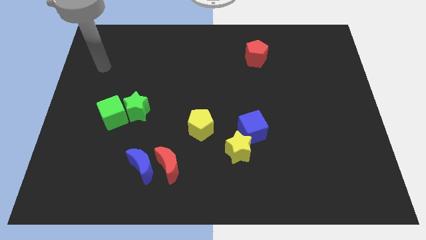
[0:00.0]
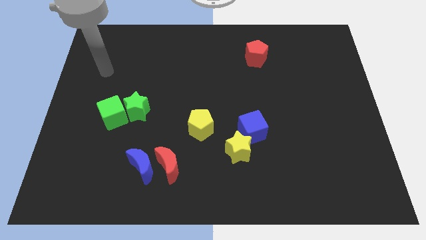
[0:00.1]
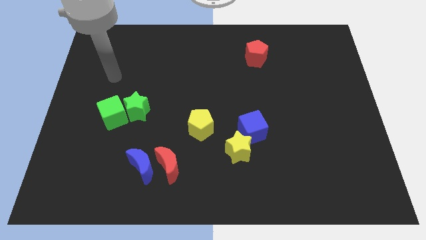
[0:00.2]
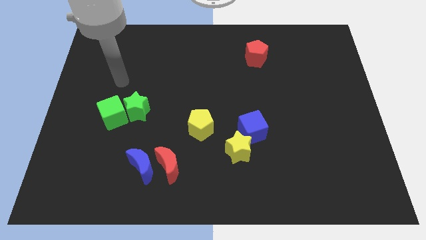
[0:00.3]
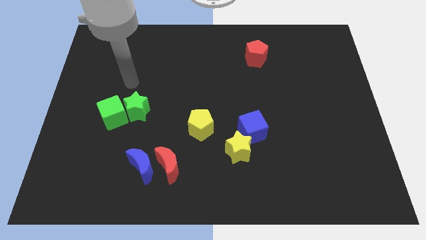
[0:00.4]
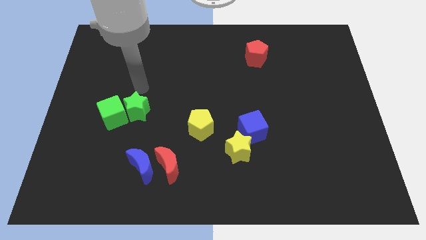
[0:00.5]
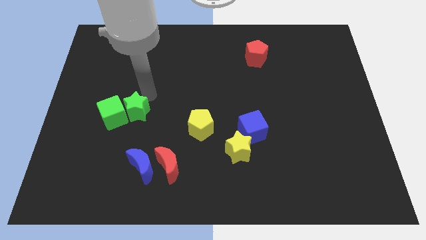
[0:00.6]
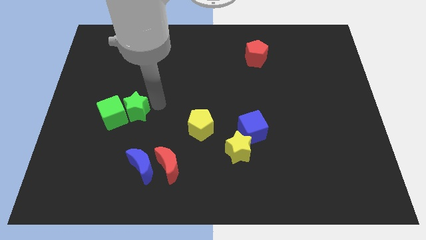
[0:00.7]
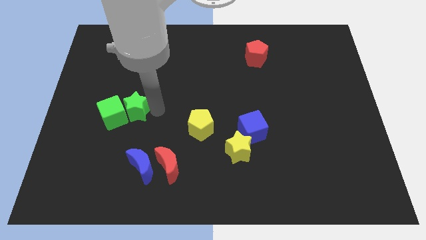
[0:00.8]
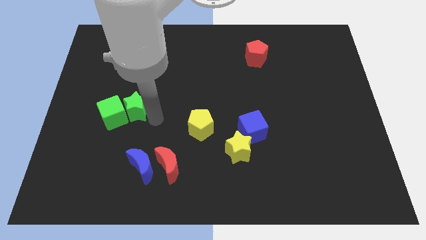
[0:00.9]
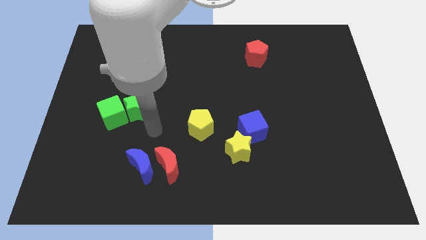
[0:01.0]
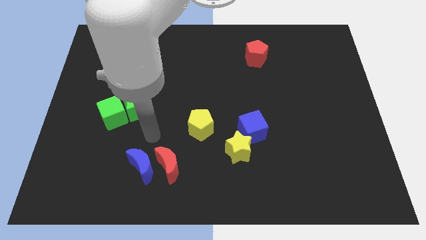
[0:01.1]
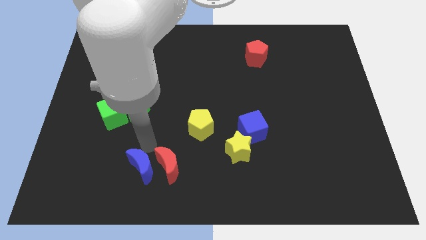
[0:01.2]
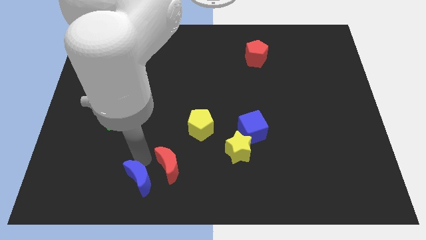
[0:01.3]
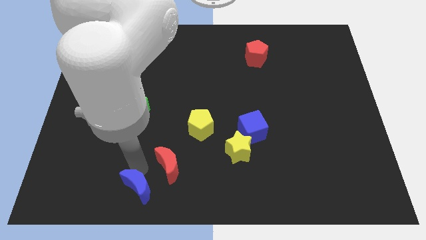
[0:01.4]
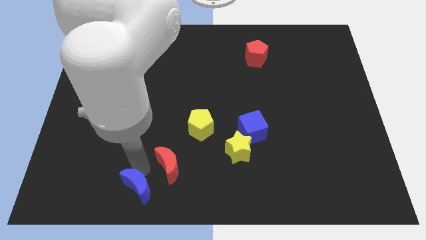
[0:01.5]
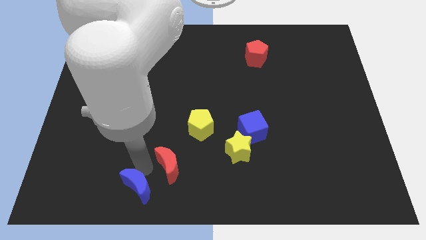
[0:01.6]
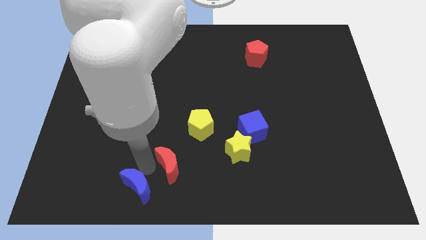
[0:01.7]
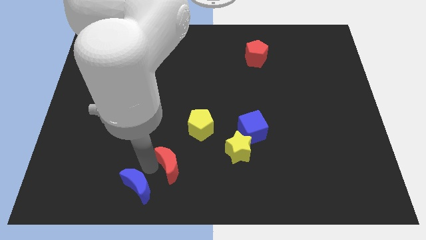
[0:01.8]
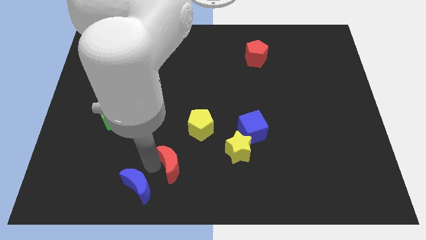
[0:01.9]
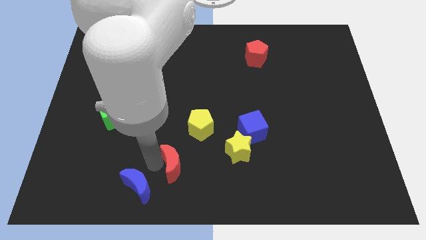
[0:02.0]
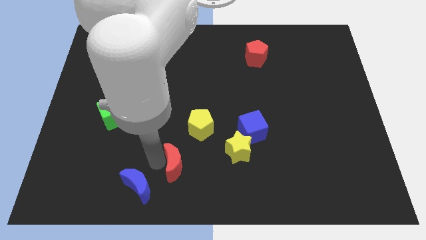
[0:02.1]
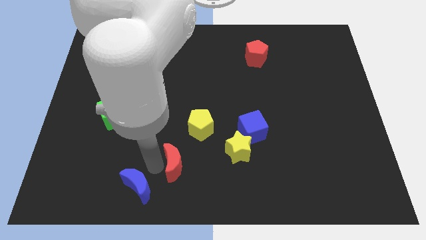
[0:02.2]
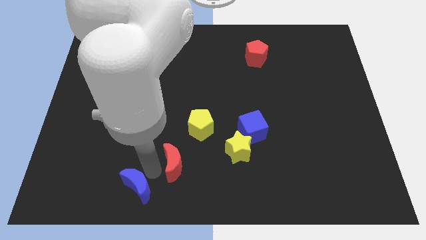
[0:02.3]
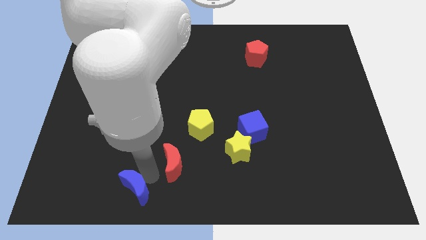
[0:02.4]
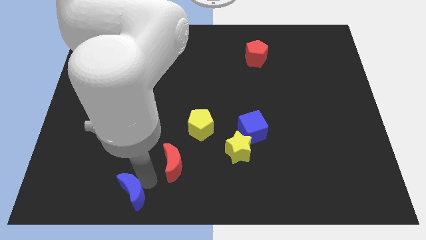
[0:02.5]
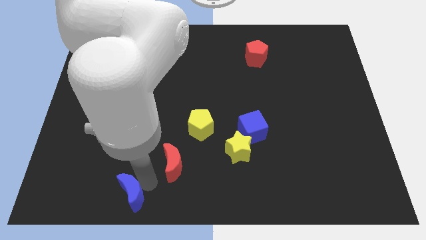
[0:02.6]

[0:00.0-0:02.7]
pull the red moon apart from the blue moon

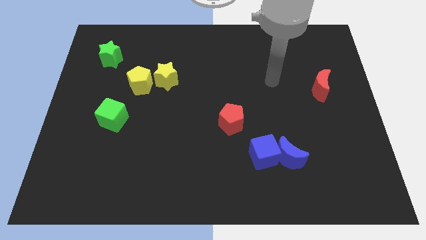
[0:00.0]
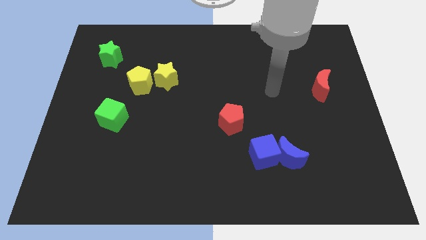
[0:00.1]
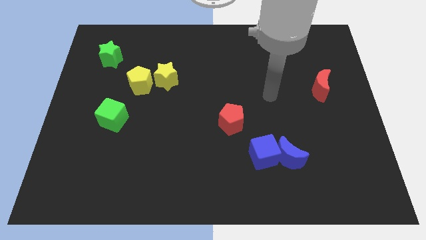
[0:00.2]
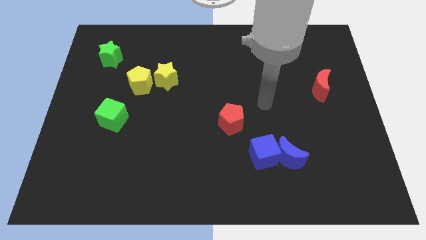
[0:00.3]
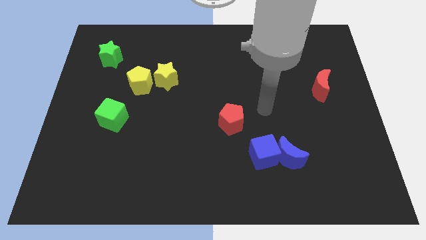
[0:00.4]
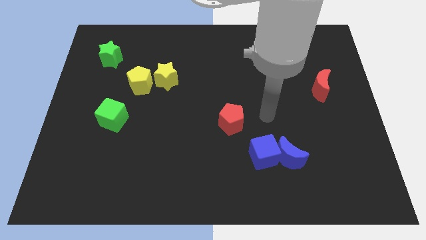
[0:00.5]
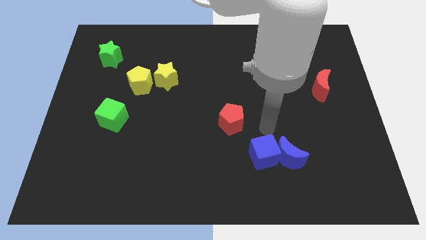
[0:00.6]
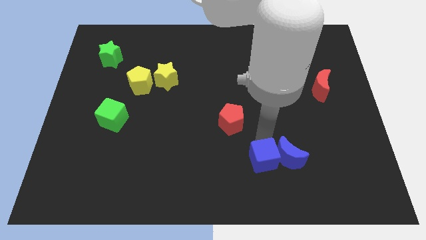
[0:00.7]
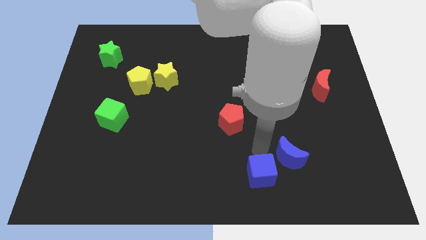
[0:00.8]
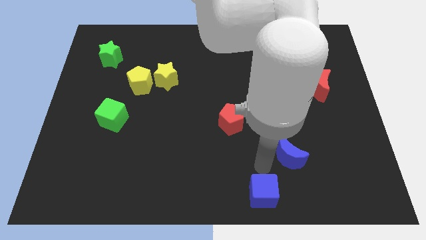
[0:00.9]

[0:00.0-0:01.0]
move the blue moon away from the blue cube

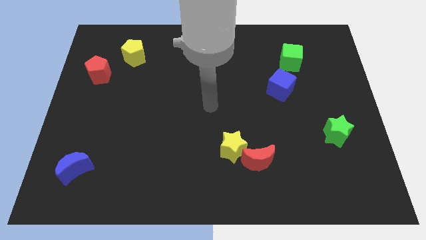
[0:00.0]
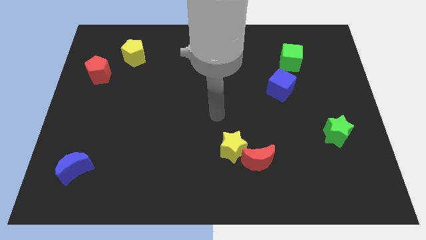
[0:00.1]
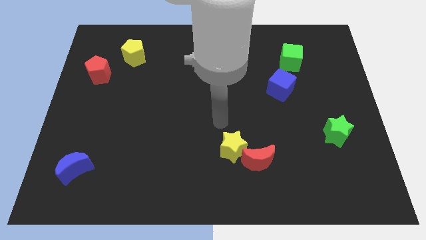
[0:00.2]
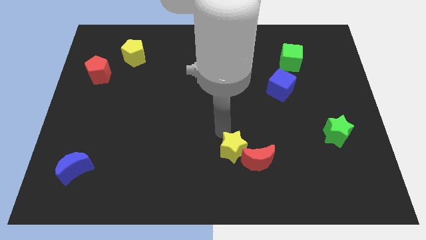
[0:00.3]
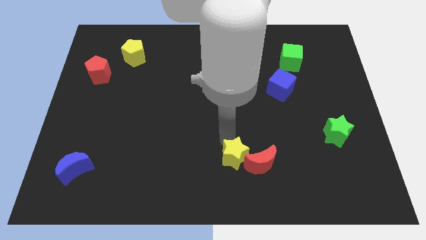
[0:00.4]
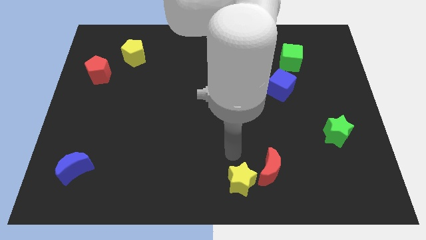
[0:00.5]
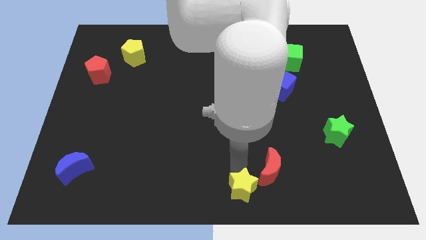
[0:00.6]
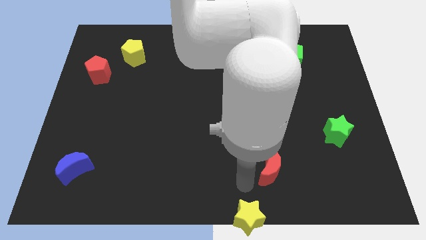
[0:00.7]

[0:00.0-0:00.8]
pull the red moon apart from the yellow star

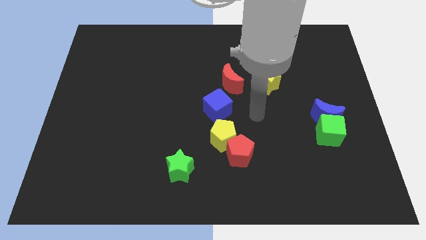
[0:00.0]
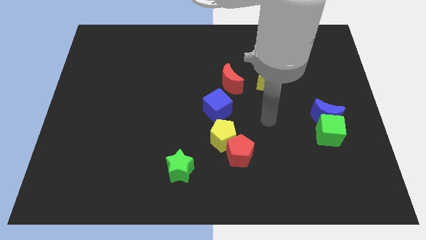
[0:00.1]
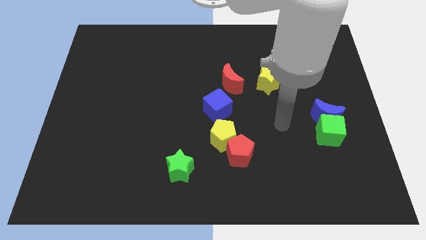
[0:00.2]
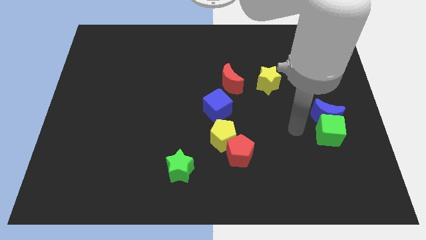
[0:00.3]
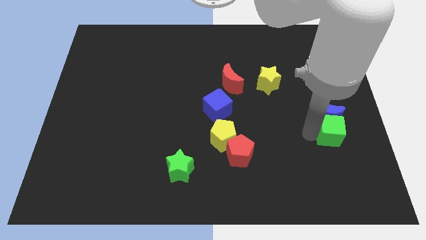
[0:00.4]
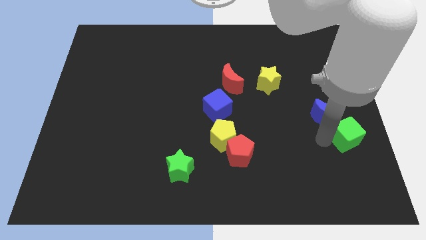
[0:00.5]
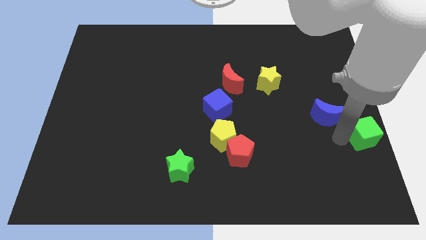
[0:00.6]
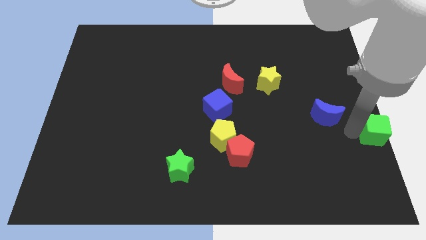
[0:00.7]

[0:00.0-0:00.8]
separate the blue moon from the green cube

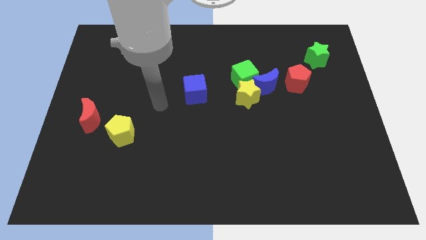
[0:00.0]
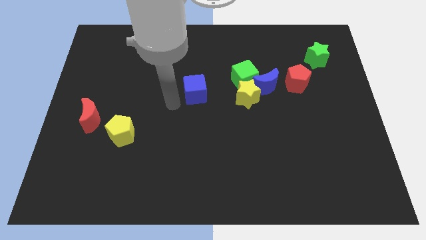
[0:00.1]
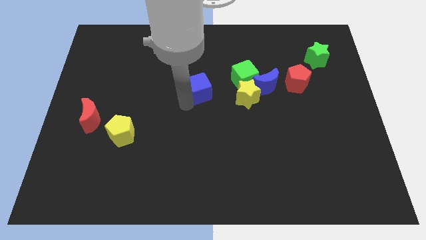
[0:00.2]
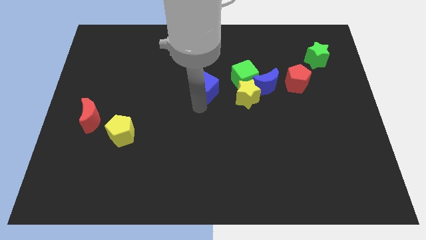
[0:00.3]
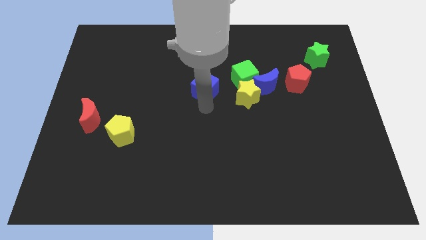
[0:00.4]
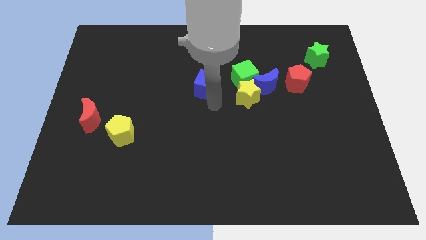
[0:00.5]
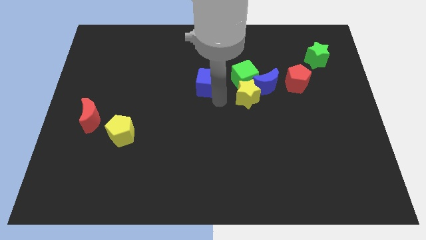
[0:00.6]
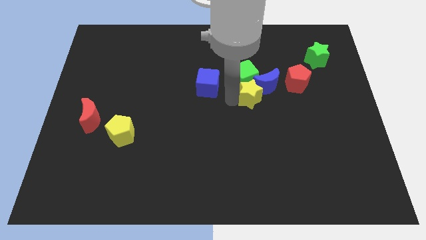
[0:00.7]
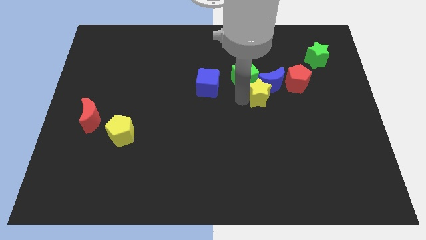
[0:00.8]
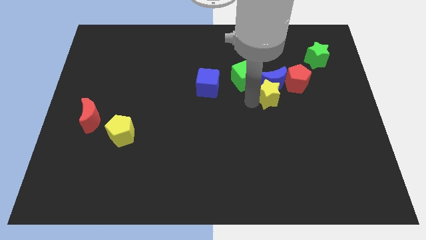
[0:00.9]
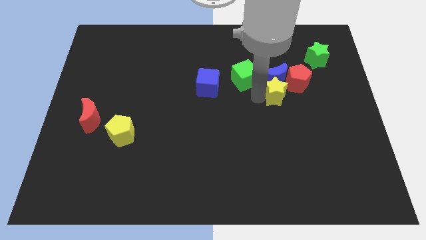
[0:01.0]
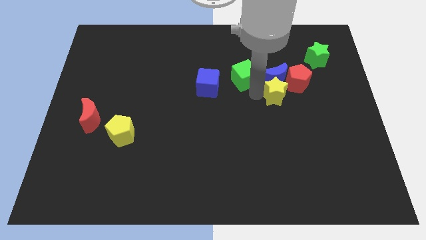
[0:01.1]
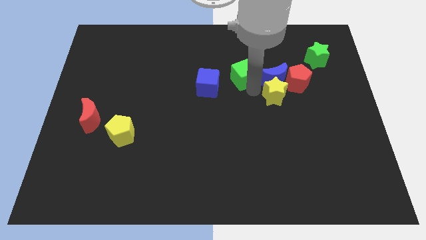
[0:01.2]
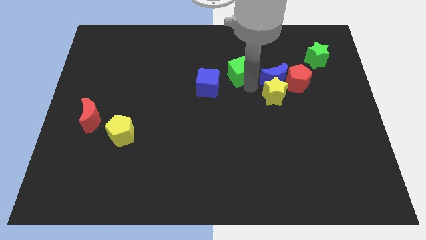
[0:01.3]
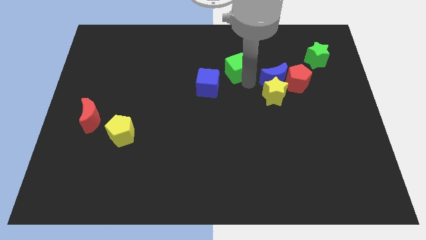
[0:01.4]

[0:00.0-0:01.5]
move the green cube away from the blue moon and yellow star

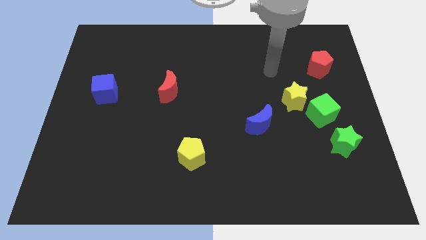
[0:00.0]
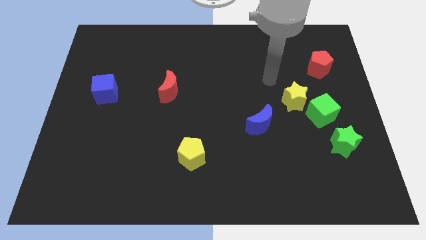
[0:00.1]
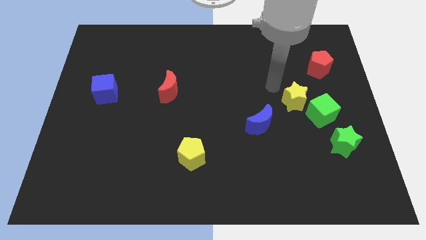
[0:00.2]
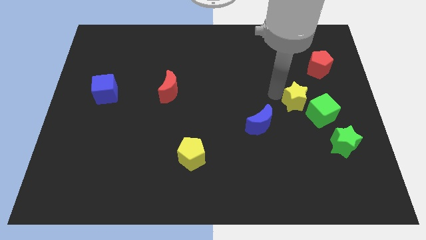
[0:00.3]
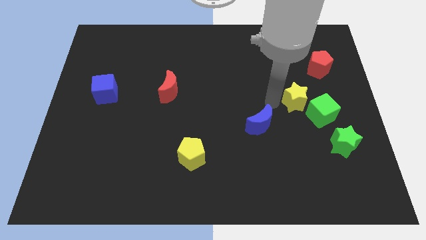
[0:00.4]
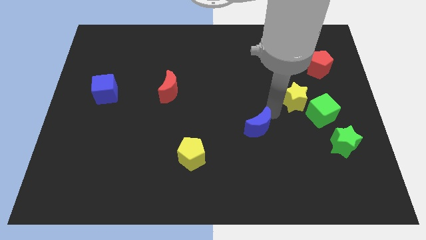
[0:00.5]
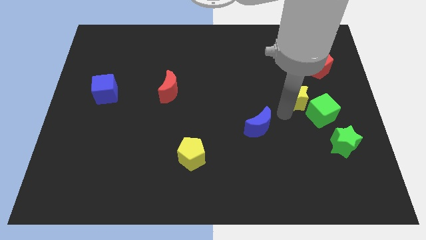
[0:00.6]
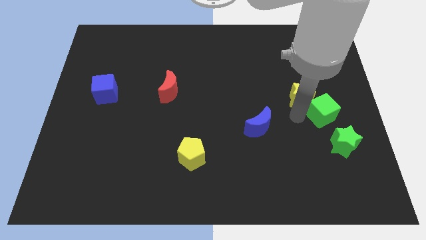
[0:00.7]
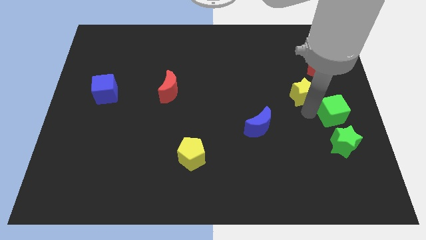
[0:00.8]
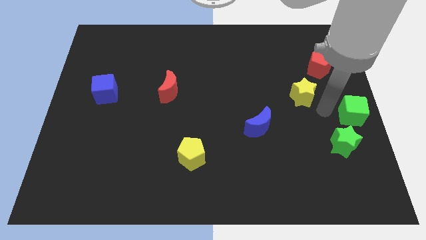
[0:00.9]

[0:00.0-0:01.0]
move the yellow star away from the green cube

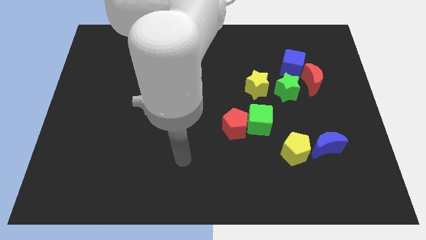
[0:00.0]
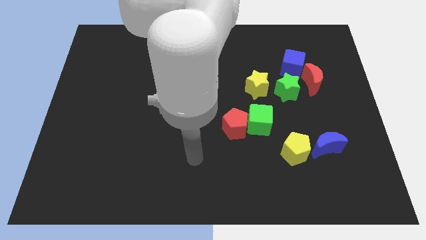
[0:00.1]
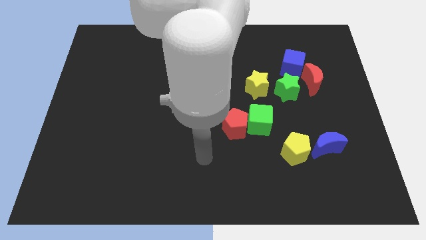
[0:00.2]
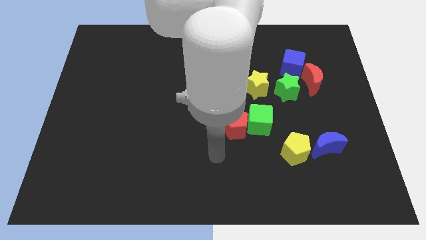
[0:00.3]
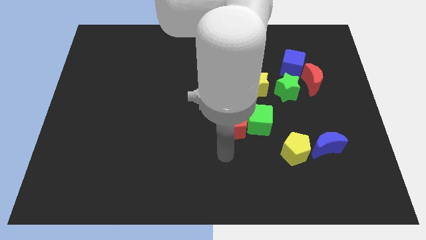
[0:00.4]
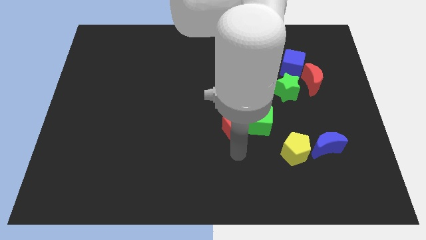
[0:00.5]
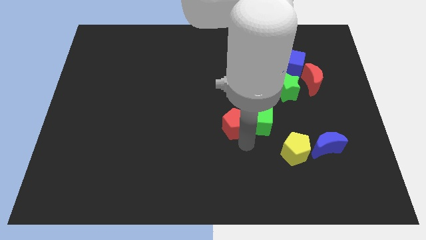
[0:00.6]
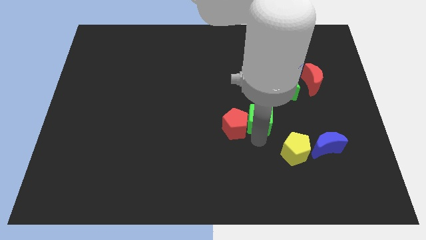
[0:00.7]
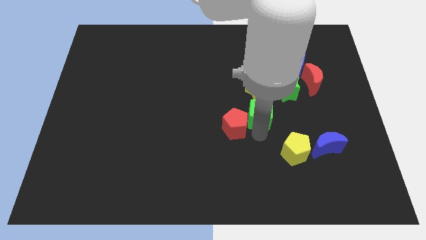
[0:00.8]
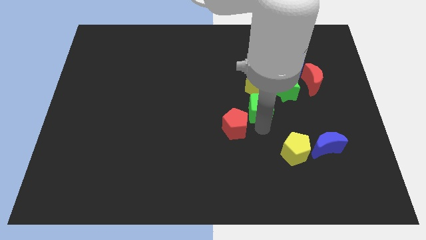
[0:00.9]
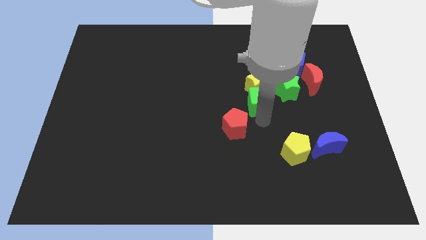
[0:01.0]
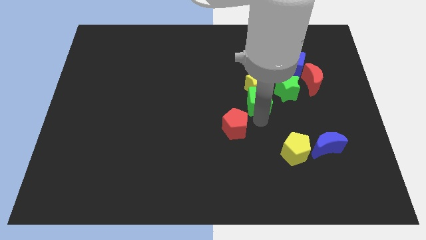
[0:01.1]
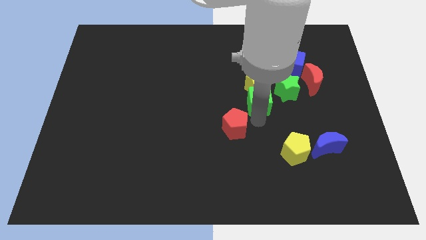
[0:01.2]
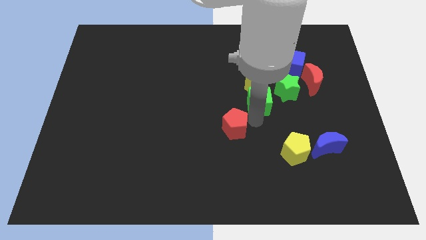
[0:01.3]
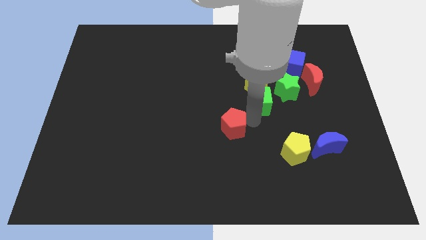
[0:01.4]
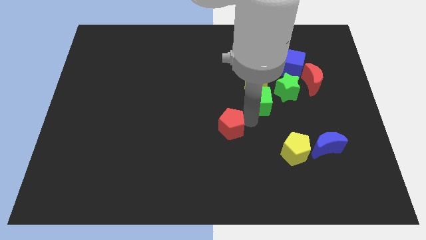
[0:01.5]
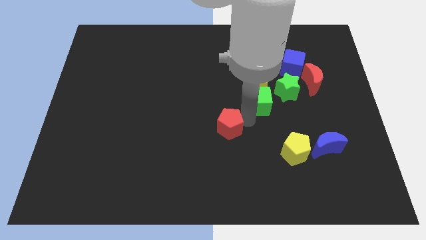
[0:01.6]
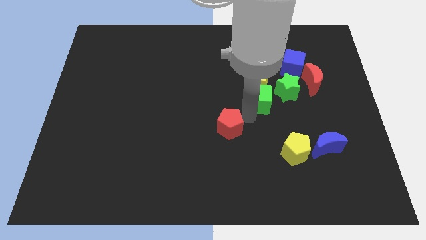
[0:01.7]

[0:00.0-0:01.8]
pull the red pentagon apart from the green cube
